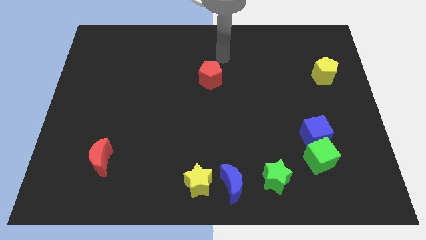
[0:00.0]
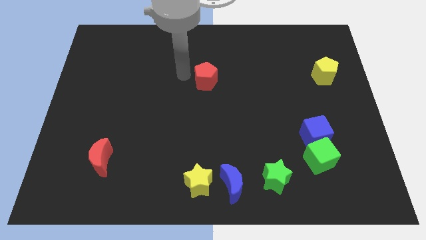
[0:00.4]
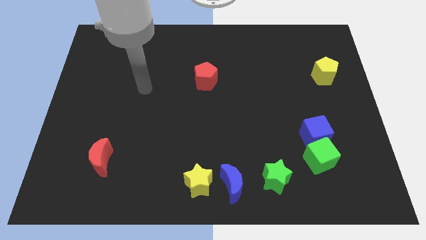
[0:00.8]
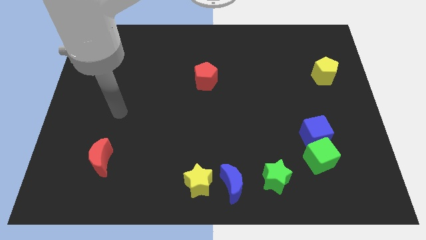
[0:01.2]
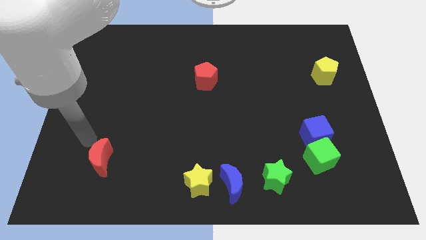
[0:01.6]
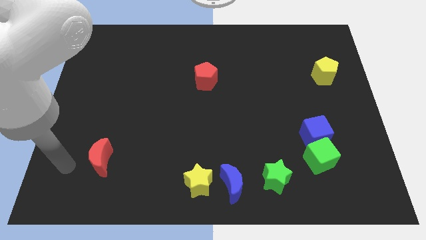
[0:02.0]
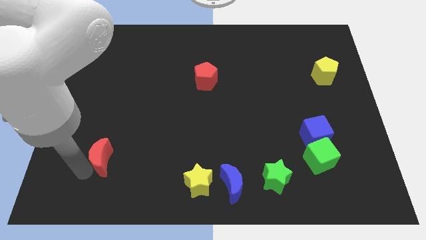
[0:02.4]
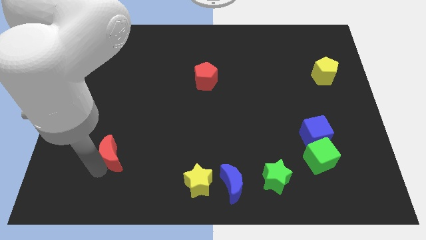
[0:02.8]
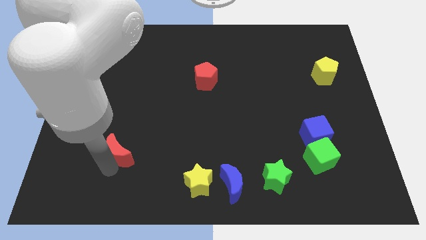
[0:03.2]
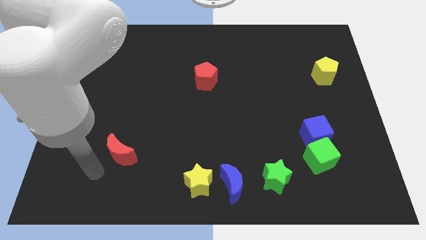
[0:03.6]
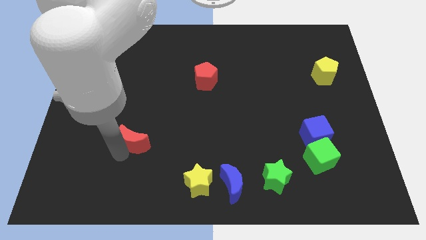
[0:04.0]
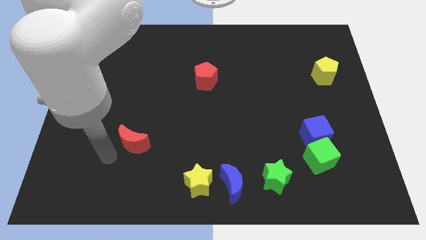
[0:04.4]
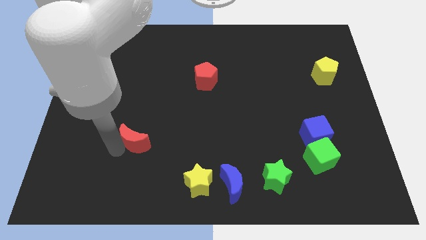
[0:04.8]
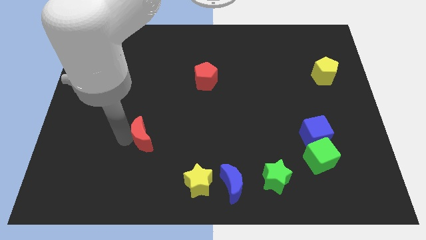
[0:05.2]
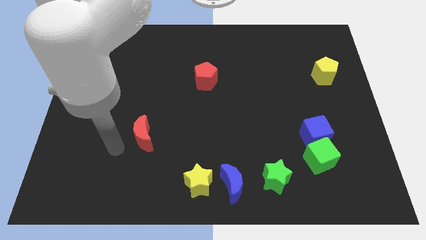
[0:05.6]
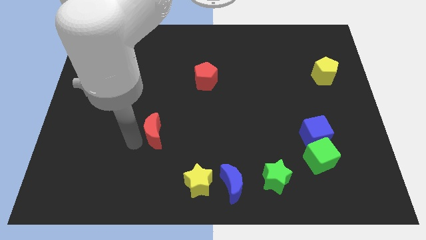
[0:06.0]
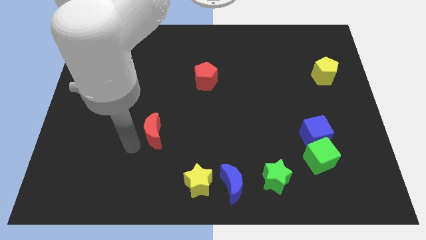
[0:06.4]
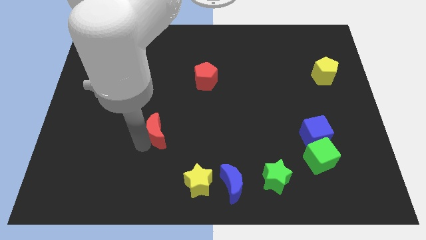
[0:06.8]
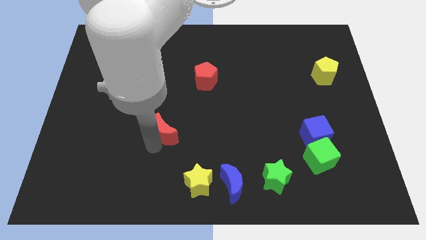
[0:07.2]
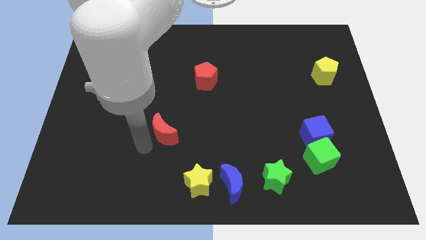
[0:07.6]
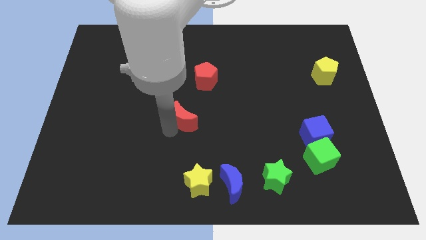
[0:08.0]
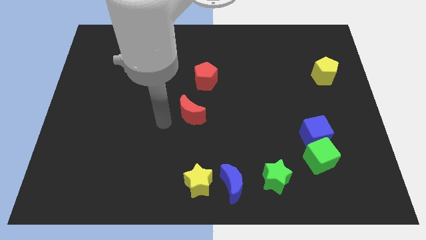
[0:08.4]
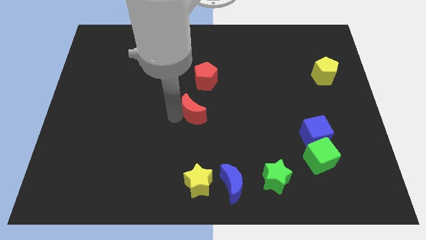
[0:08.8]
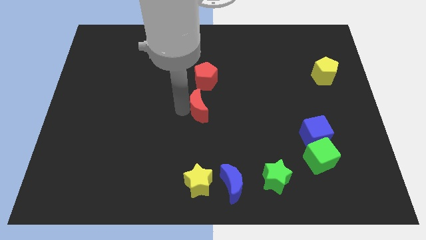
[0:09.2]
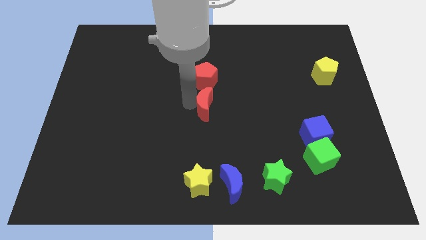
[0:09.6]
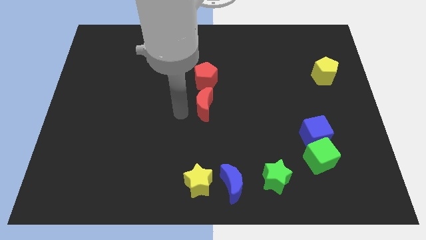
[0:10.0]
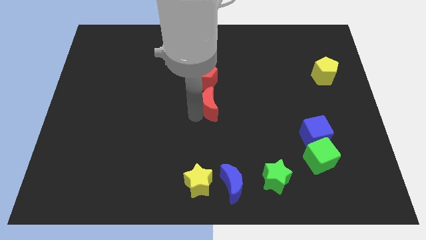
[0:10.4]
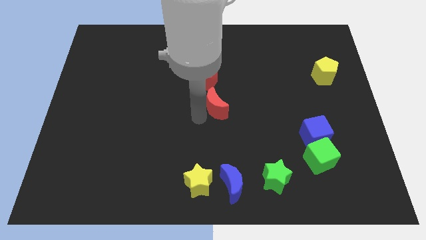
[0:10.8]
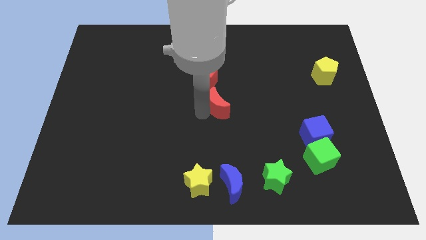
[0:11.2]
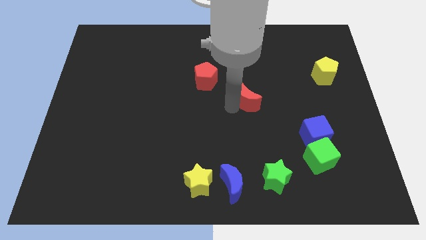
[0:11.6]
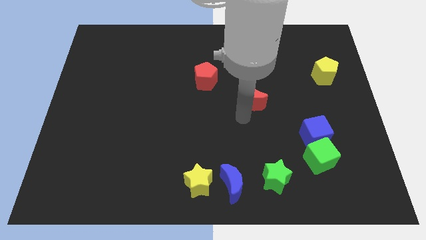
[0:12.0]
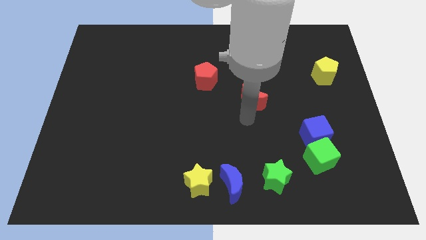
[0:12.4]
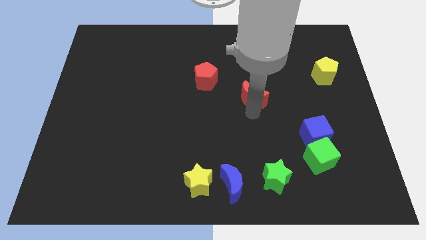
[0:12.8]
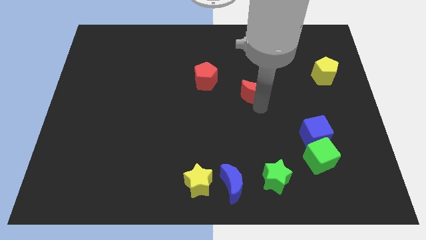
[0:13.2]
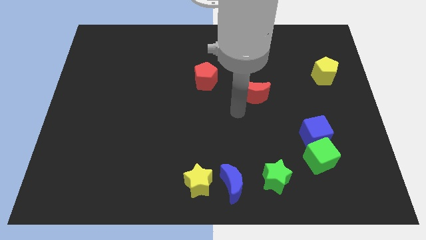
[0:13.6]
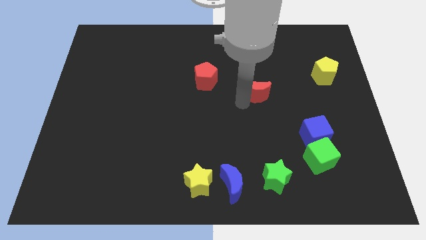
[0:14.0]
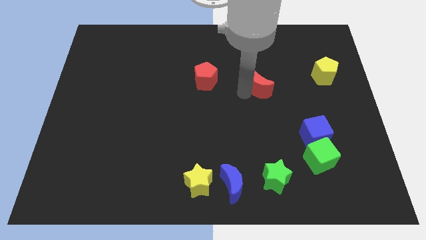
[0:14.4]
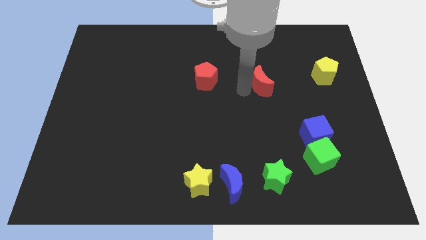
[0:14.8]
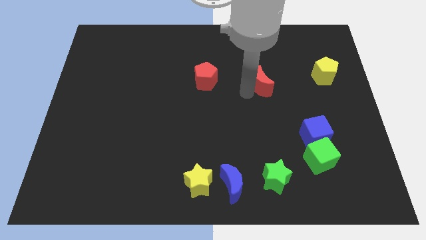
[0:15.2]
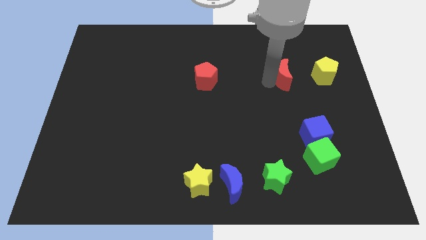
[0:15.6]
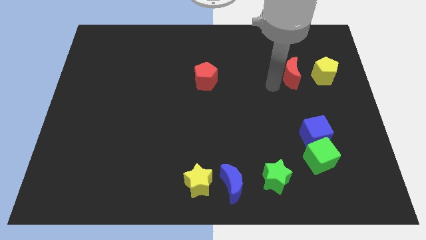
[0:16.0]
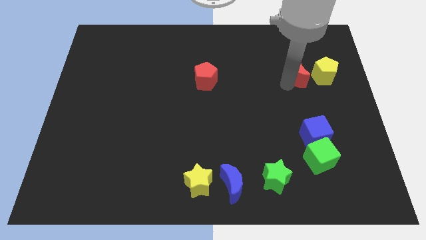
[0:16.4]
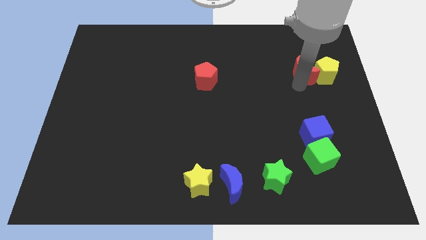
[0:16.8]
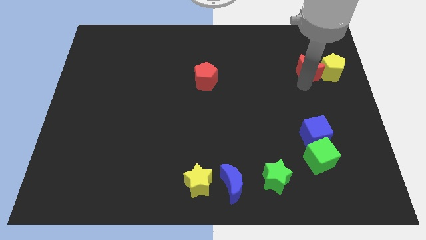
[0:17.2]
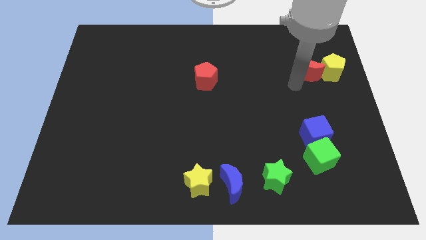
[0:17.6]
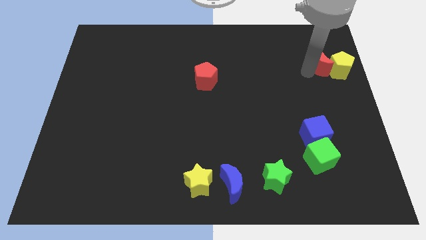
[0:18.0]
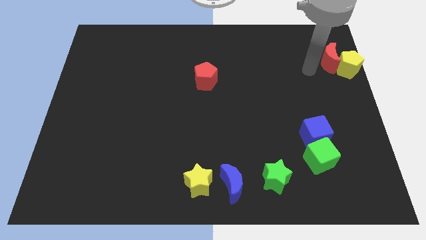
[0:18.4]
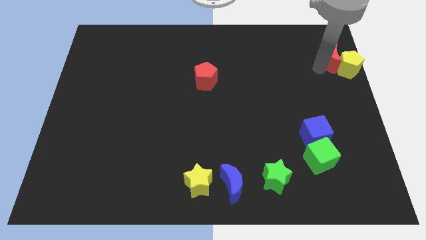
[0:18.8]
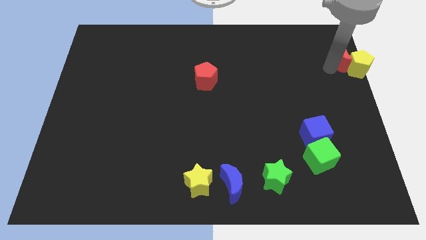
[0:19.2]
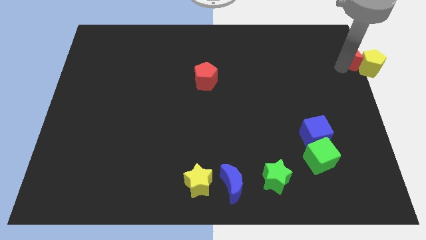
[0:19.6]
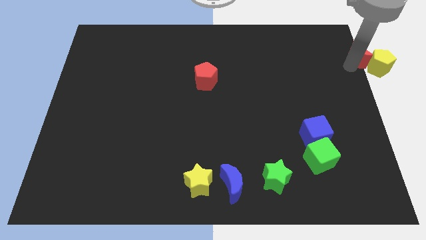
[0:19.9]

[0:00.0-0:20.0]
slide the red moon to the top right

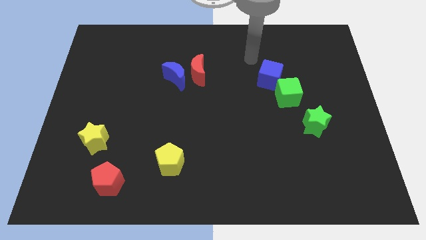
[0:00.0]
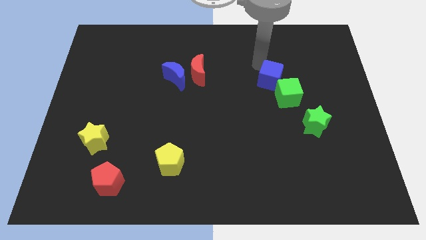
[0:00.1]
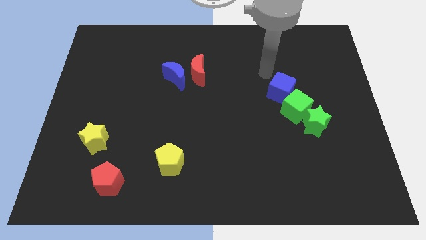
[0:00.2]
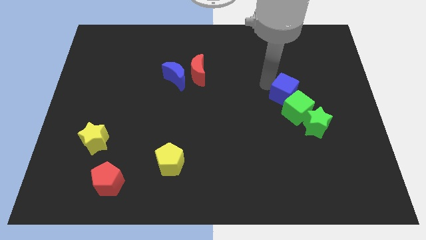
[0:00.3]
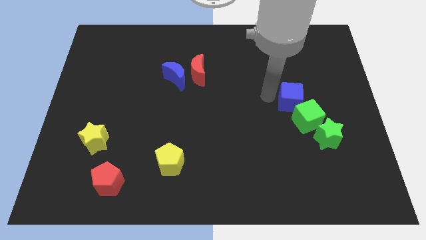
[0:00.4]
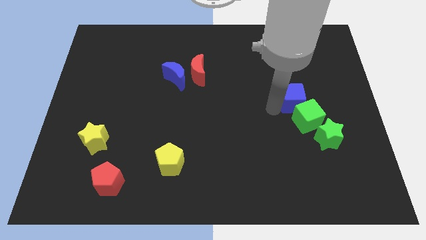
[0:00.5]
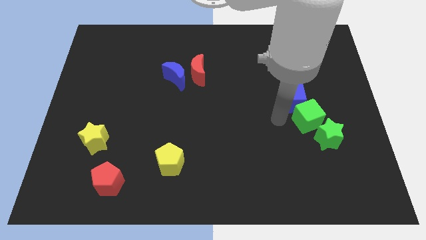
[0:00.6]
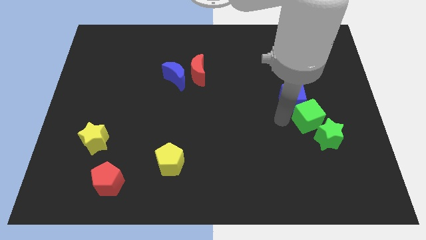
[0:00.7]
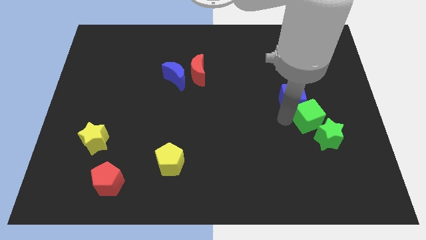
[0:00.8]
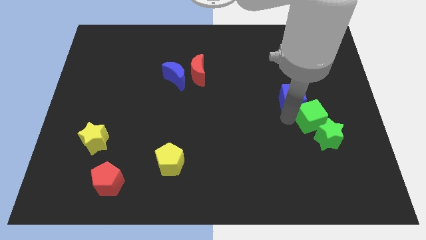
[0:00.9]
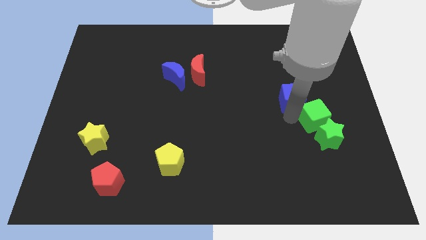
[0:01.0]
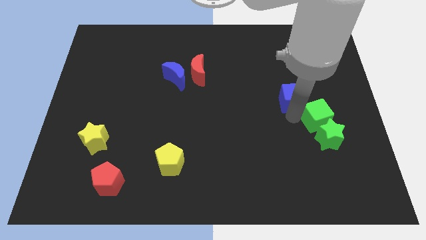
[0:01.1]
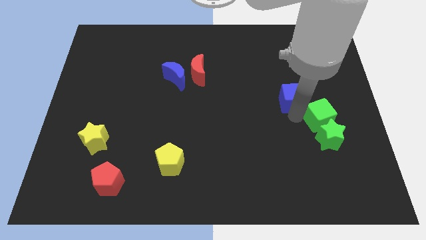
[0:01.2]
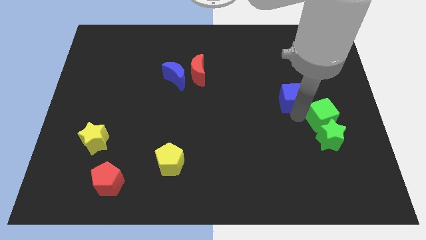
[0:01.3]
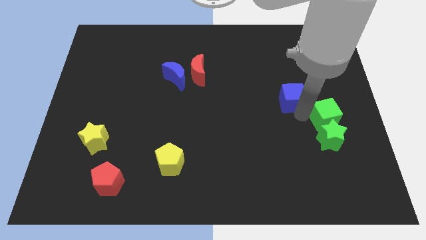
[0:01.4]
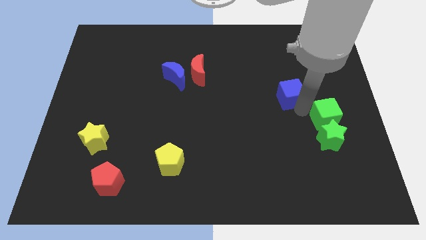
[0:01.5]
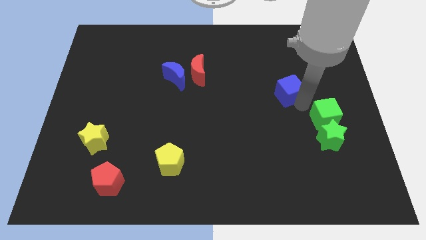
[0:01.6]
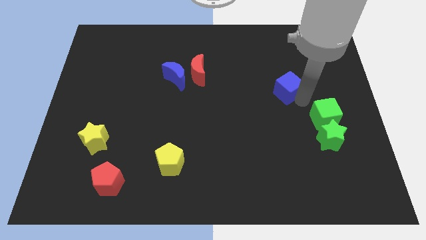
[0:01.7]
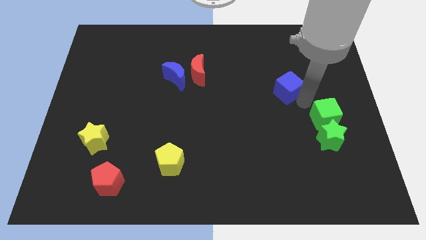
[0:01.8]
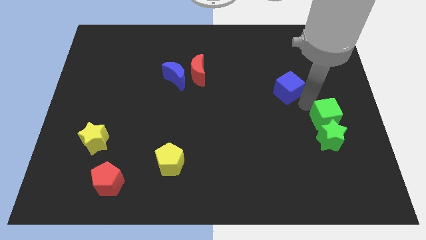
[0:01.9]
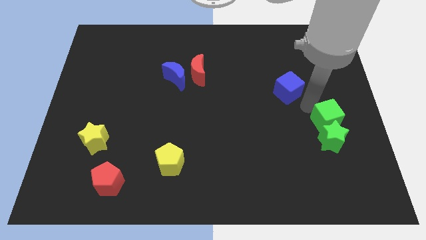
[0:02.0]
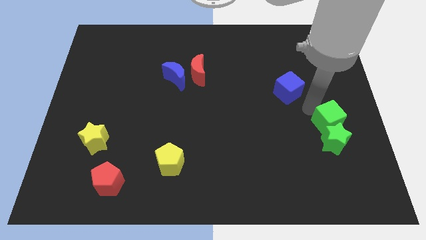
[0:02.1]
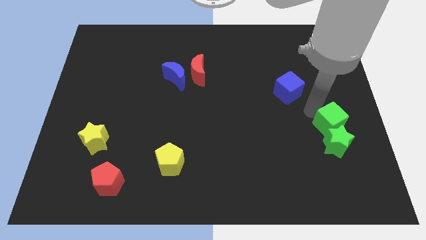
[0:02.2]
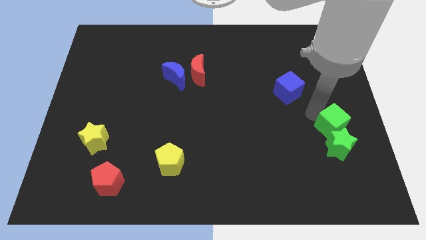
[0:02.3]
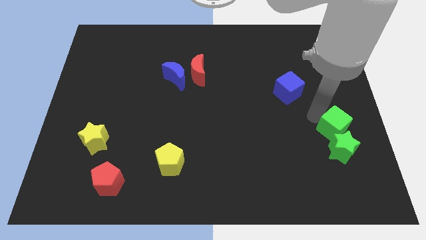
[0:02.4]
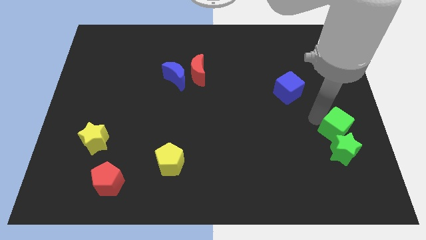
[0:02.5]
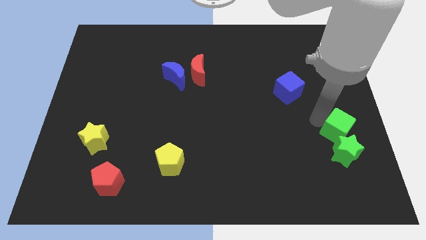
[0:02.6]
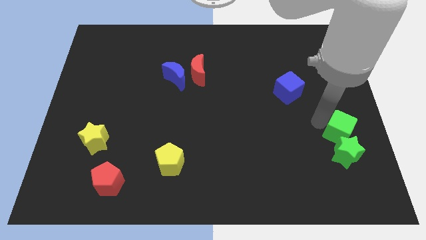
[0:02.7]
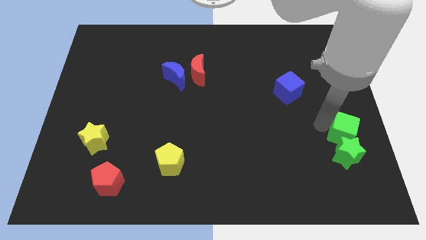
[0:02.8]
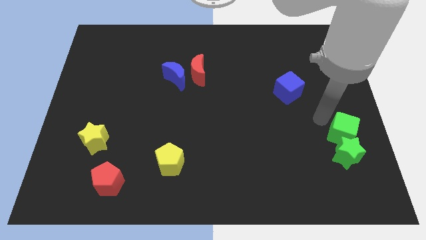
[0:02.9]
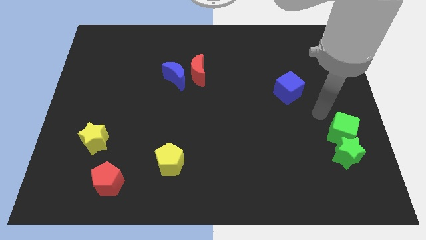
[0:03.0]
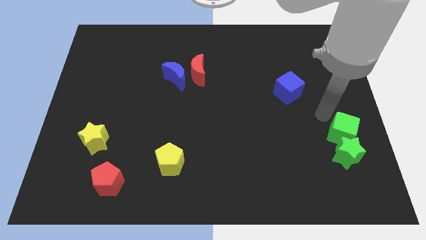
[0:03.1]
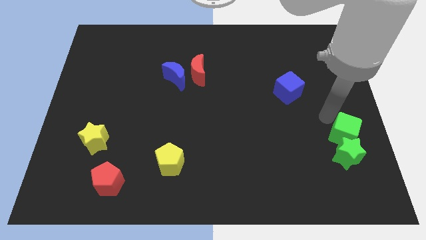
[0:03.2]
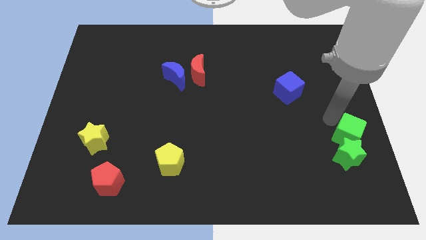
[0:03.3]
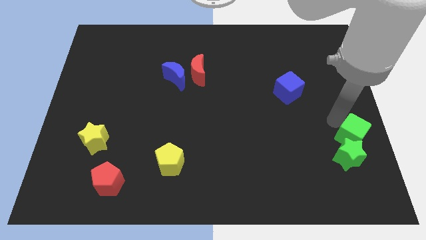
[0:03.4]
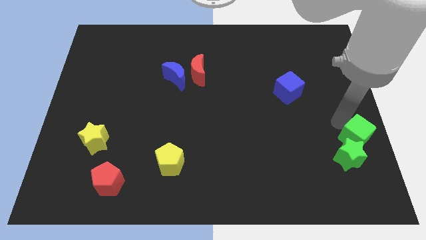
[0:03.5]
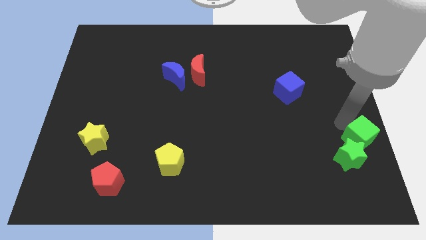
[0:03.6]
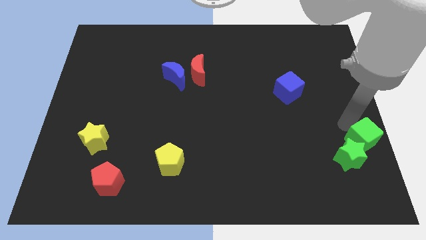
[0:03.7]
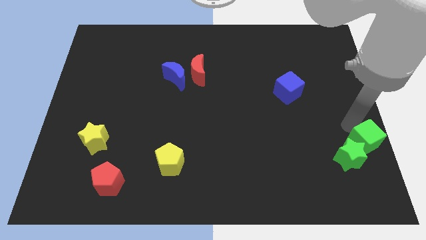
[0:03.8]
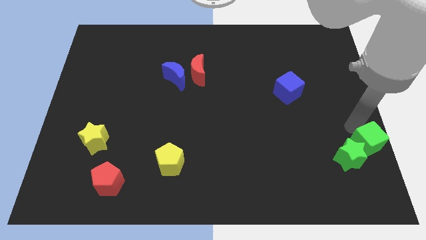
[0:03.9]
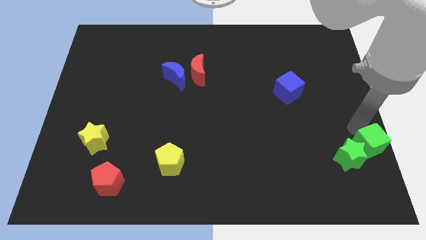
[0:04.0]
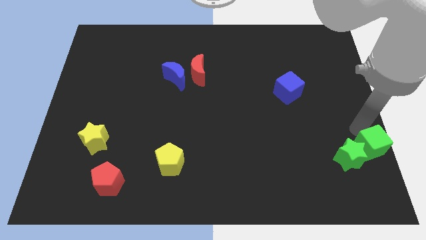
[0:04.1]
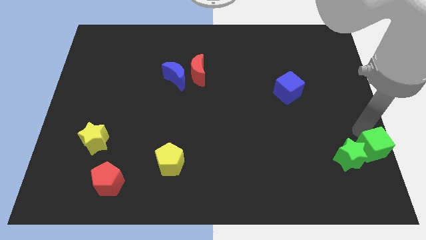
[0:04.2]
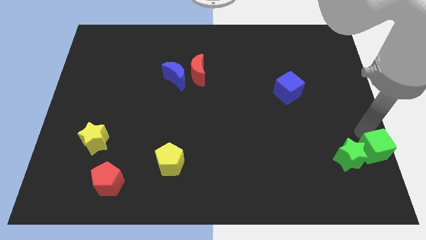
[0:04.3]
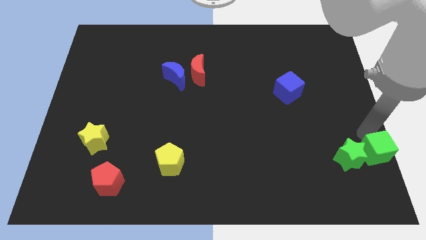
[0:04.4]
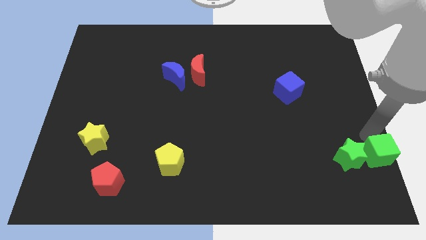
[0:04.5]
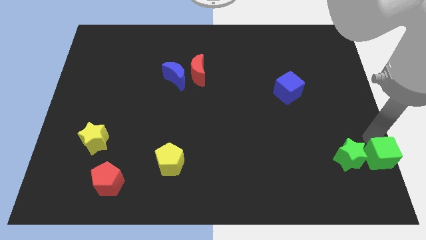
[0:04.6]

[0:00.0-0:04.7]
slide the green cube to the bottom right of the board
